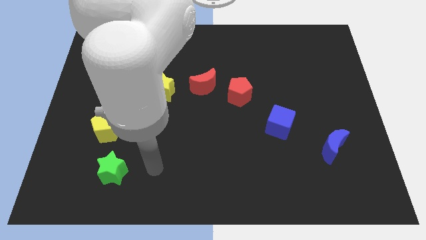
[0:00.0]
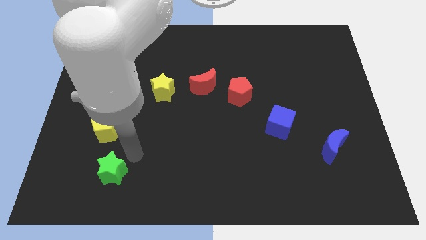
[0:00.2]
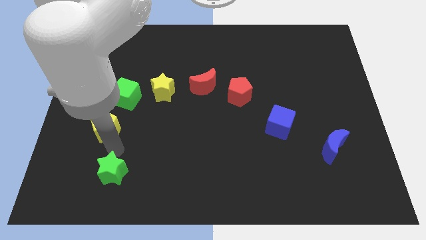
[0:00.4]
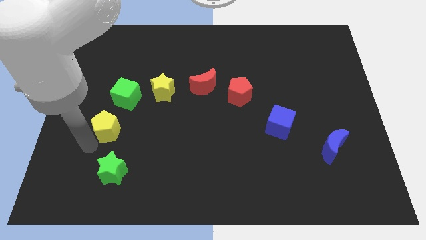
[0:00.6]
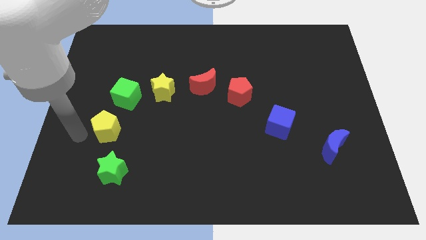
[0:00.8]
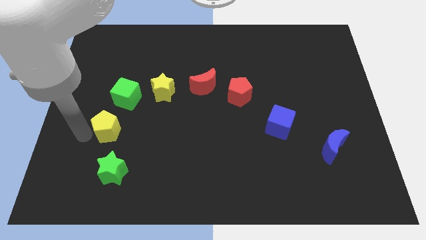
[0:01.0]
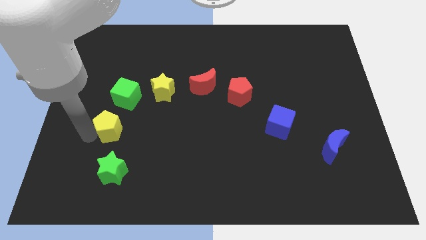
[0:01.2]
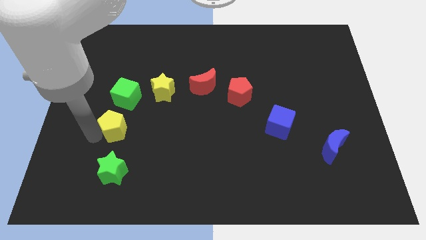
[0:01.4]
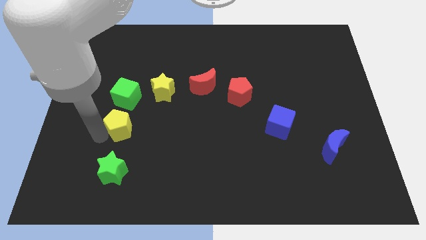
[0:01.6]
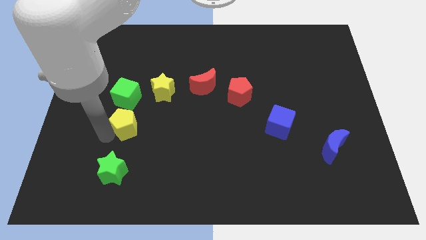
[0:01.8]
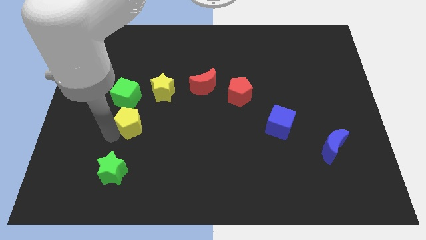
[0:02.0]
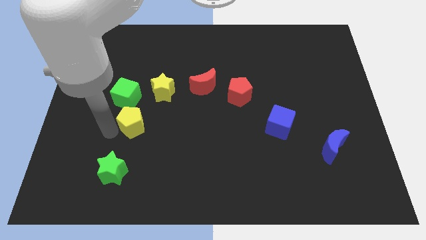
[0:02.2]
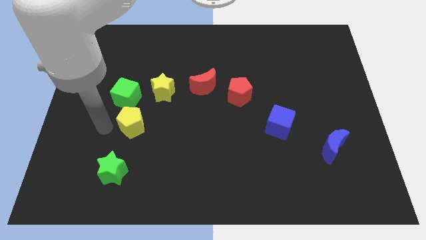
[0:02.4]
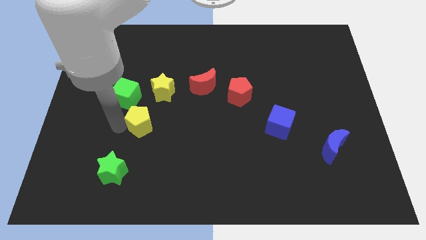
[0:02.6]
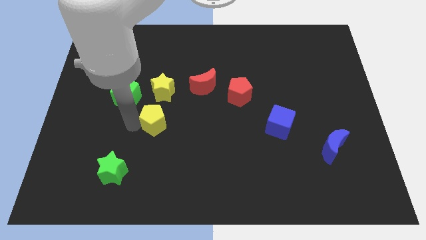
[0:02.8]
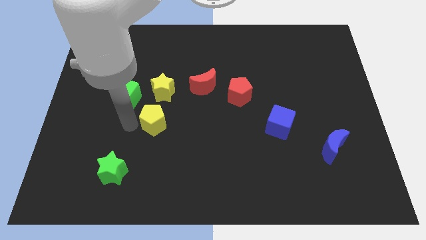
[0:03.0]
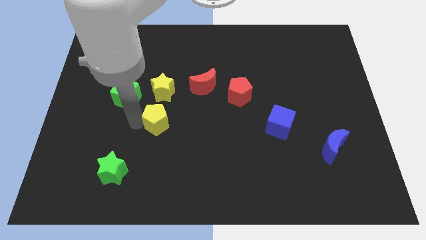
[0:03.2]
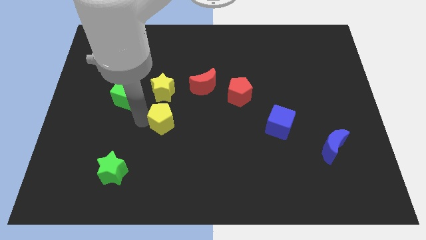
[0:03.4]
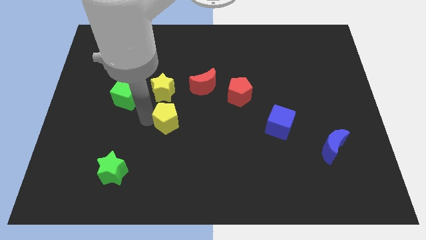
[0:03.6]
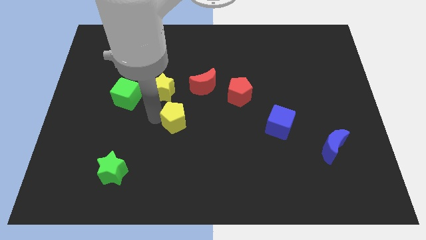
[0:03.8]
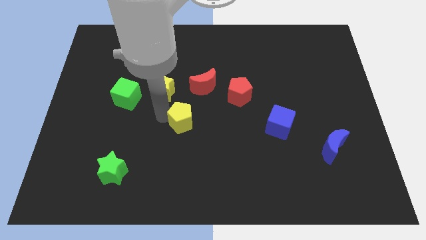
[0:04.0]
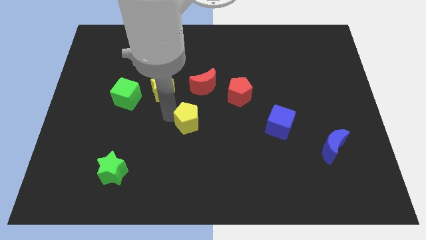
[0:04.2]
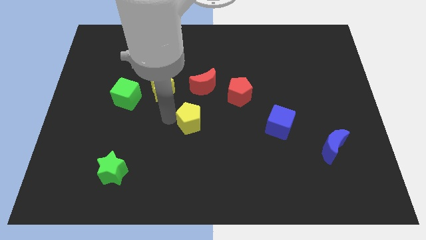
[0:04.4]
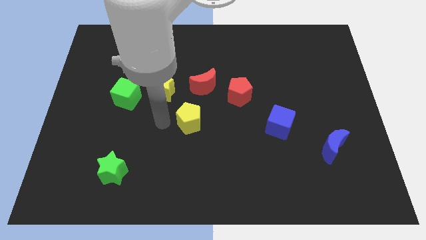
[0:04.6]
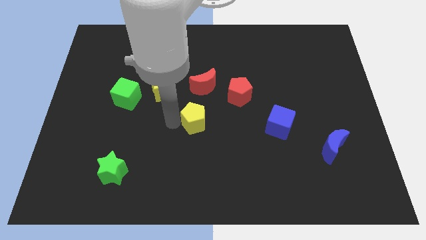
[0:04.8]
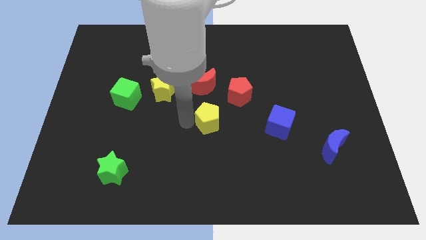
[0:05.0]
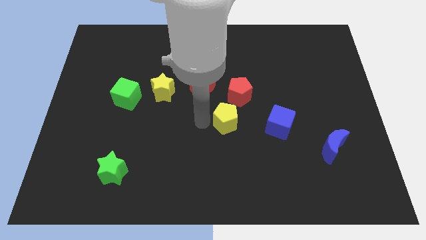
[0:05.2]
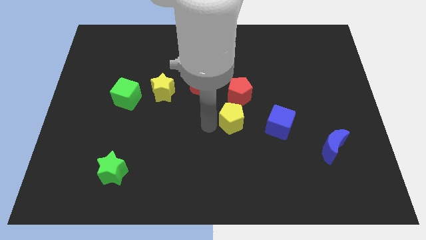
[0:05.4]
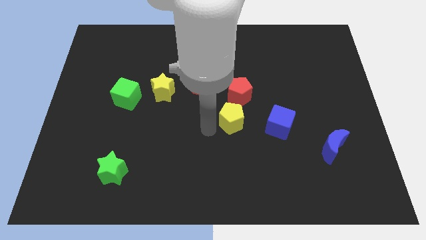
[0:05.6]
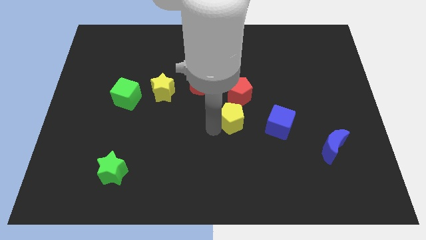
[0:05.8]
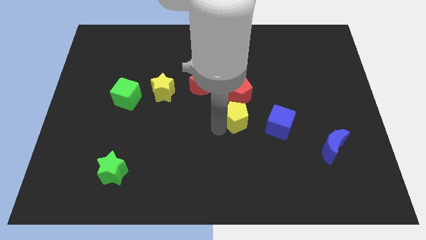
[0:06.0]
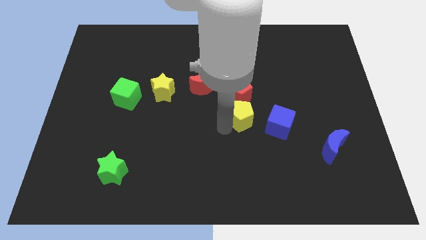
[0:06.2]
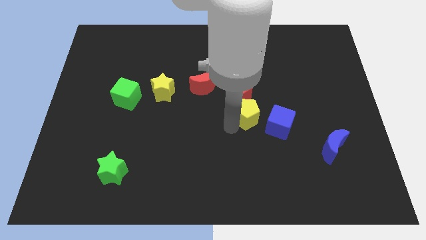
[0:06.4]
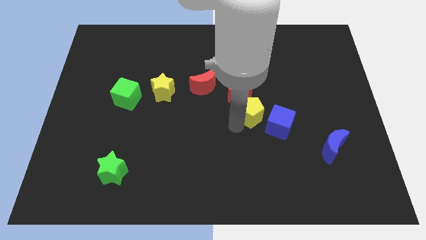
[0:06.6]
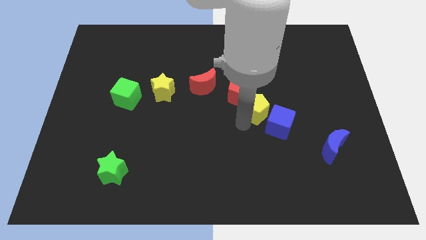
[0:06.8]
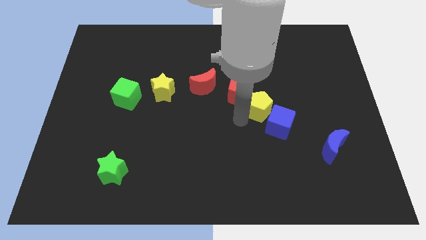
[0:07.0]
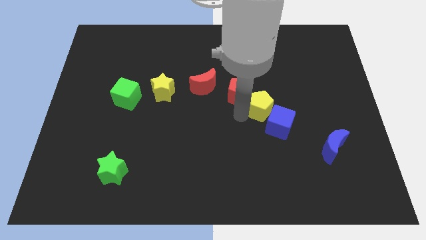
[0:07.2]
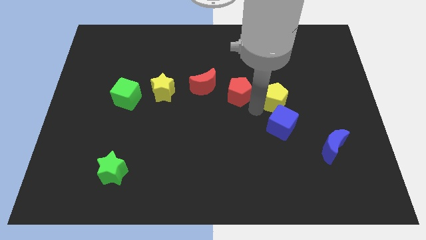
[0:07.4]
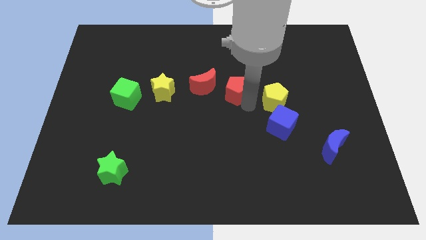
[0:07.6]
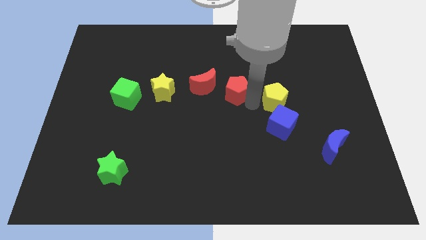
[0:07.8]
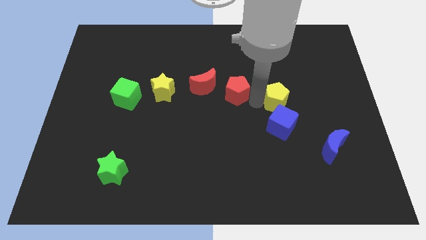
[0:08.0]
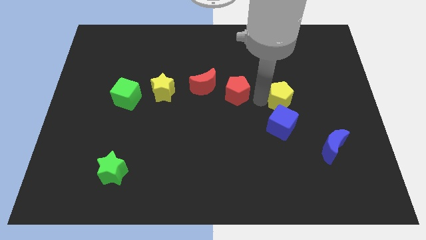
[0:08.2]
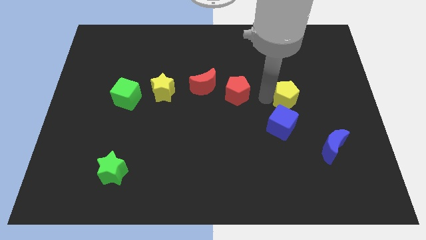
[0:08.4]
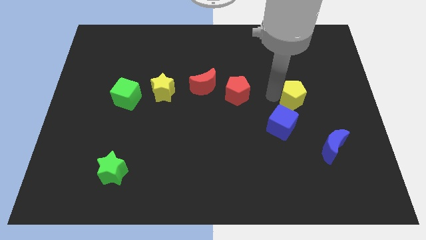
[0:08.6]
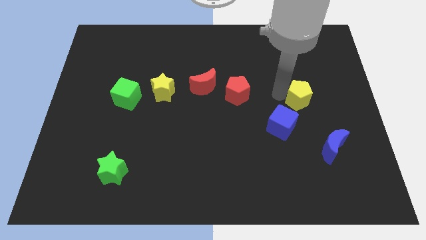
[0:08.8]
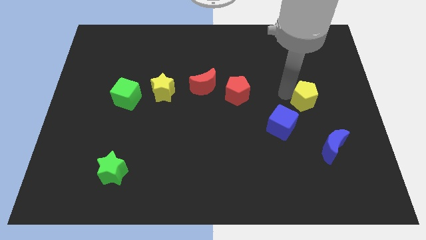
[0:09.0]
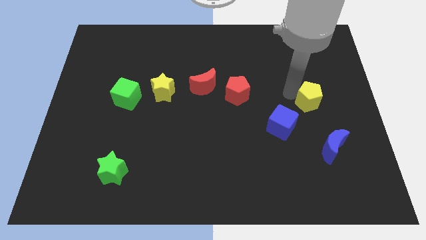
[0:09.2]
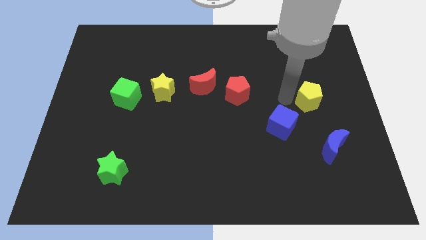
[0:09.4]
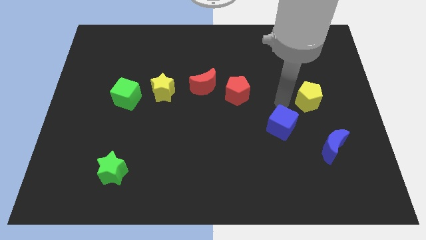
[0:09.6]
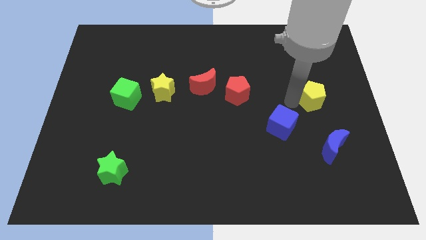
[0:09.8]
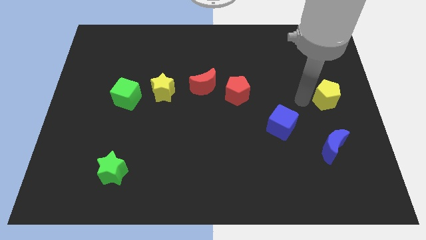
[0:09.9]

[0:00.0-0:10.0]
put the yellow pentagon to the center right

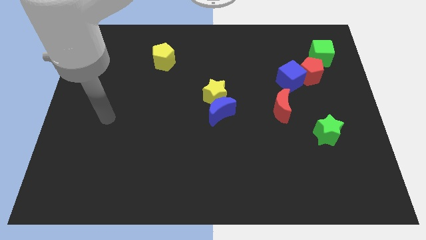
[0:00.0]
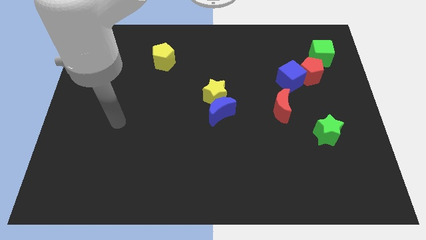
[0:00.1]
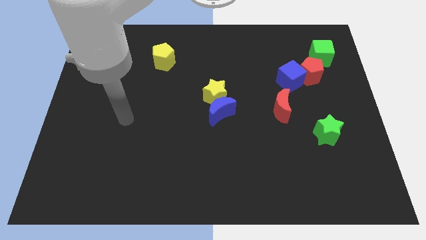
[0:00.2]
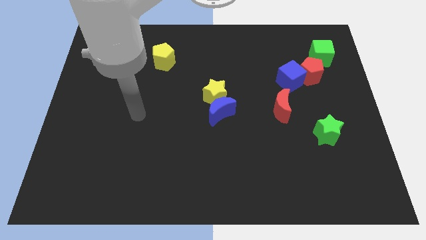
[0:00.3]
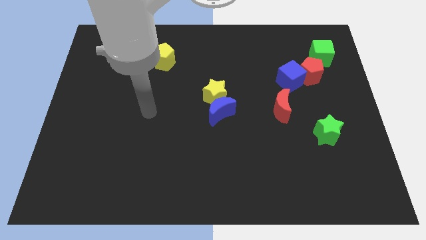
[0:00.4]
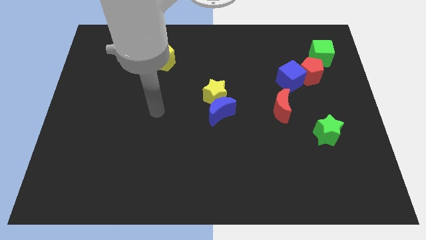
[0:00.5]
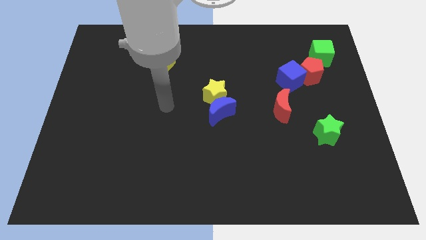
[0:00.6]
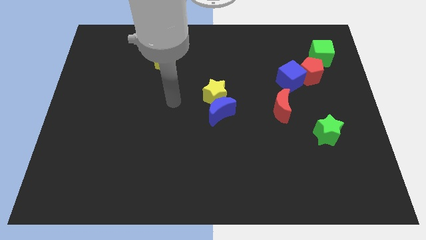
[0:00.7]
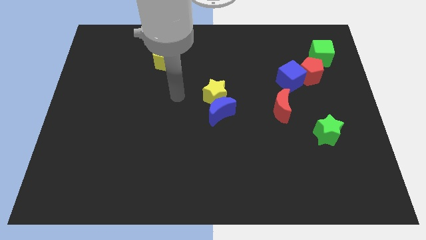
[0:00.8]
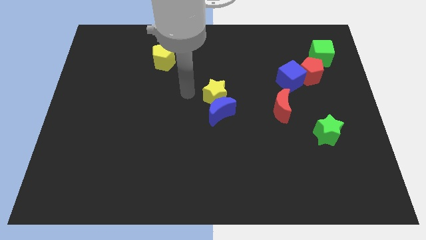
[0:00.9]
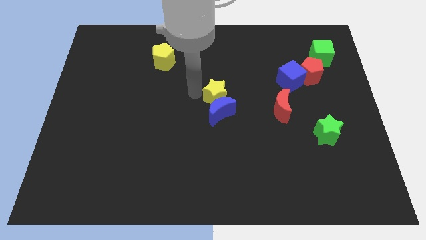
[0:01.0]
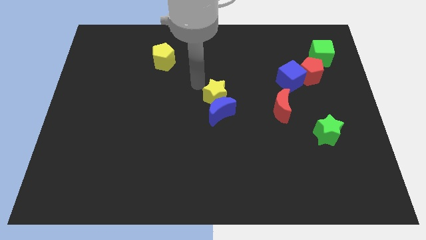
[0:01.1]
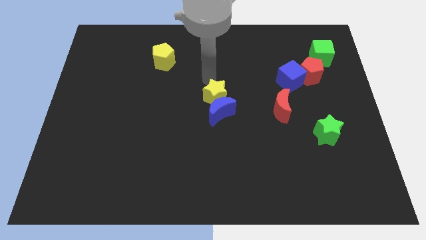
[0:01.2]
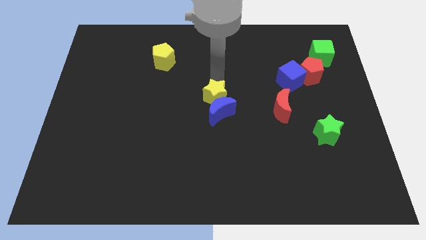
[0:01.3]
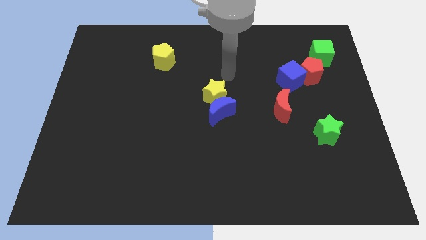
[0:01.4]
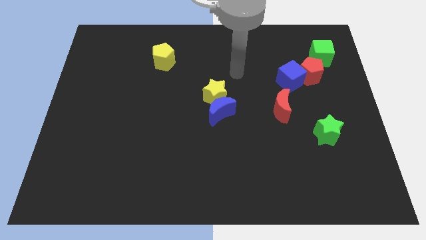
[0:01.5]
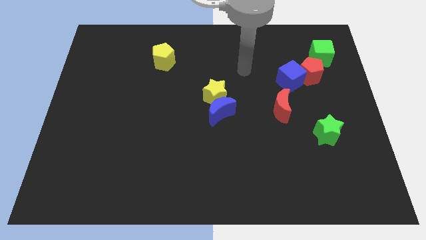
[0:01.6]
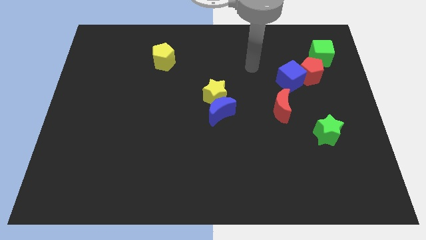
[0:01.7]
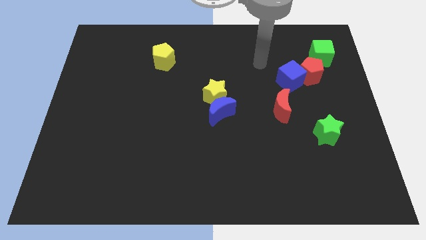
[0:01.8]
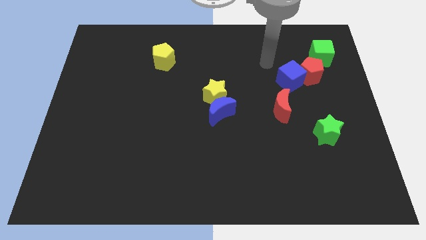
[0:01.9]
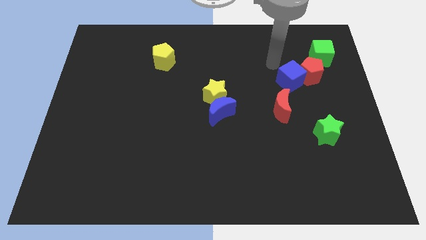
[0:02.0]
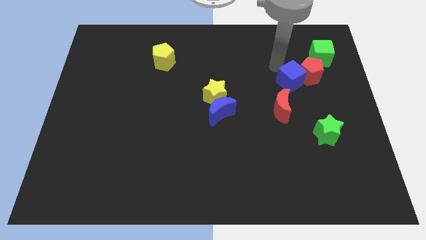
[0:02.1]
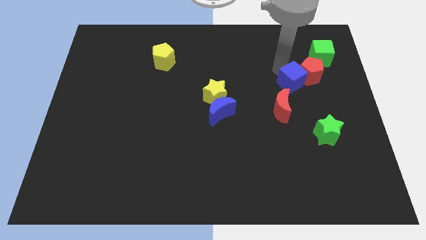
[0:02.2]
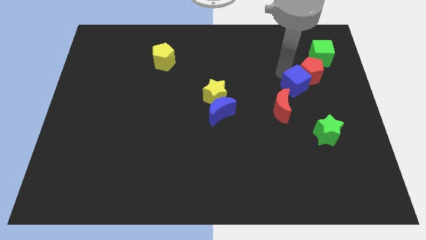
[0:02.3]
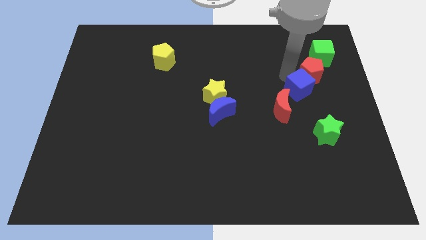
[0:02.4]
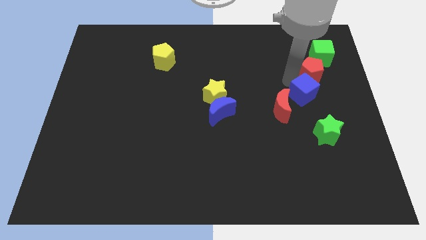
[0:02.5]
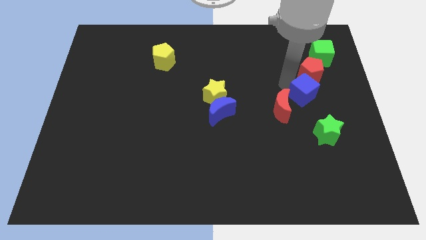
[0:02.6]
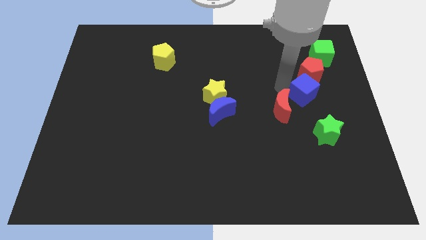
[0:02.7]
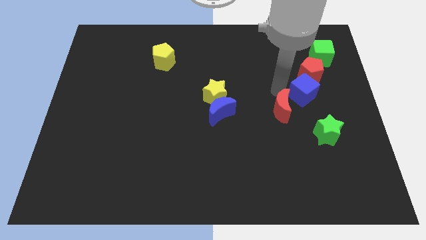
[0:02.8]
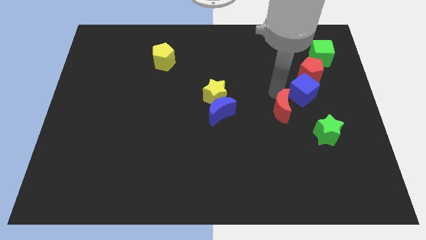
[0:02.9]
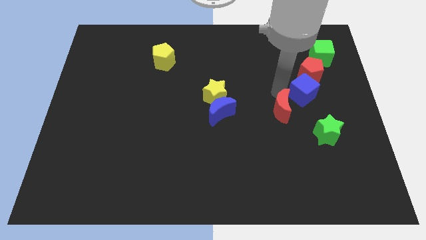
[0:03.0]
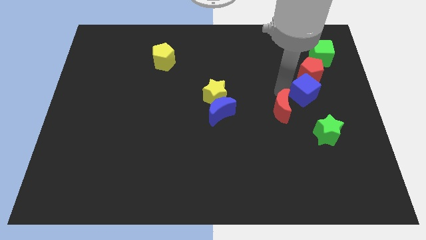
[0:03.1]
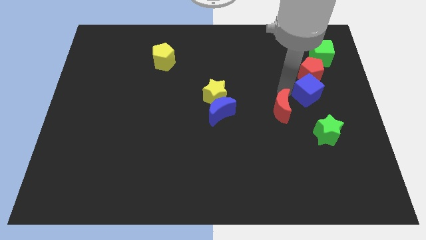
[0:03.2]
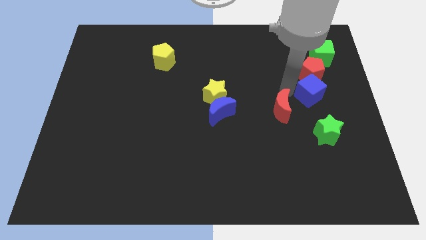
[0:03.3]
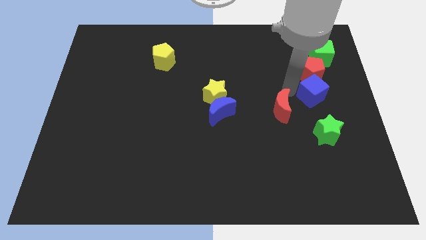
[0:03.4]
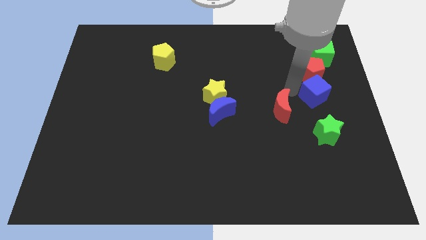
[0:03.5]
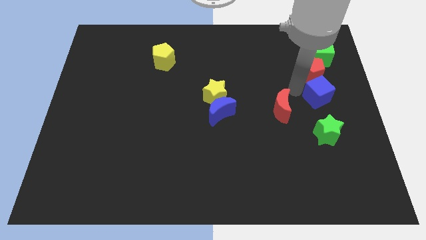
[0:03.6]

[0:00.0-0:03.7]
push the blue cube to the right side of the board
